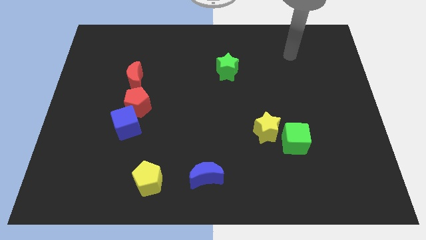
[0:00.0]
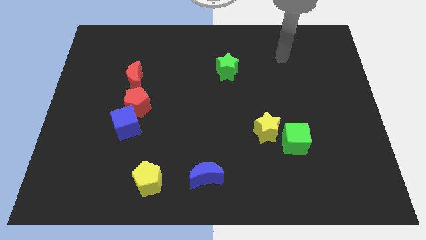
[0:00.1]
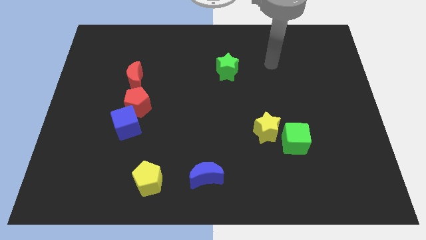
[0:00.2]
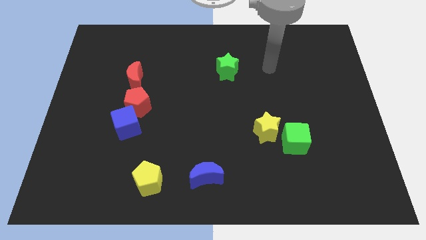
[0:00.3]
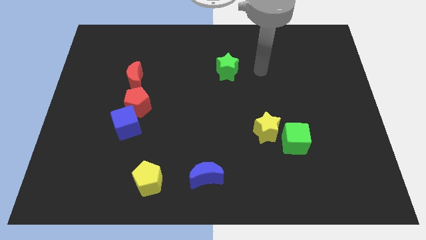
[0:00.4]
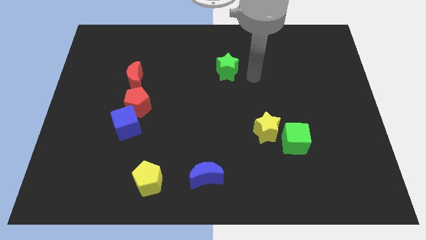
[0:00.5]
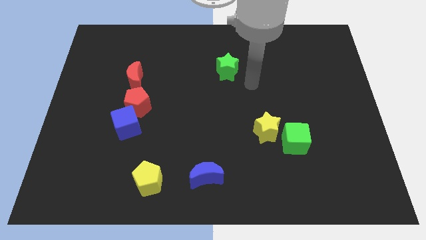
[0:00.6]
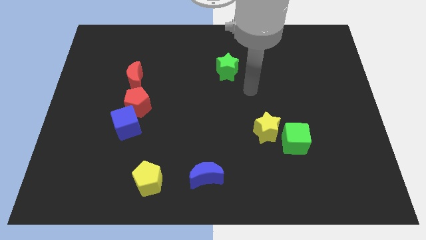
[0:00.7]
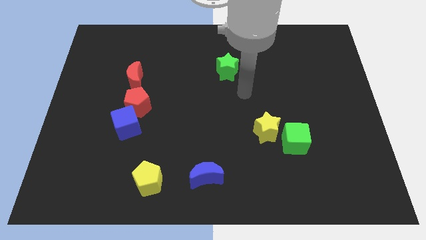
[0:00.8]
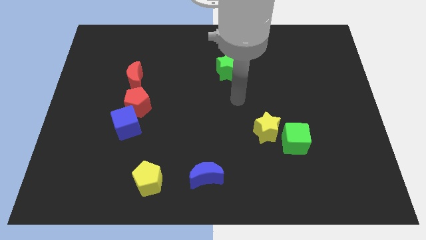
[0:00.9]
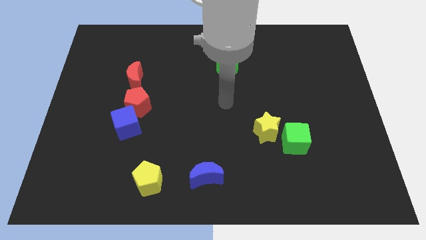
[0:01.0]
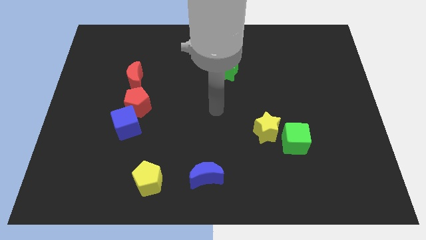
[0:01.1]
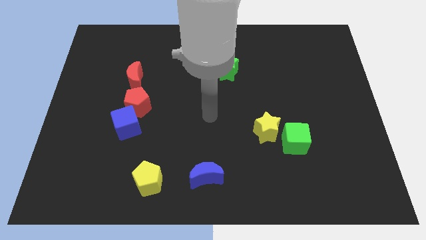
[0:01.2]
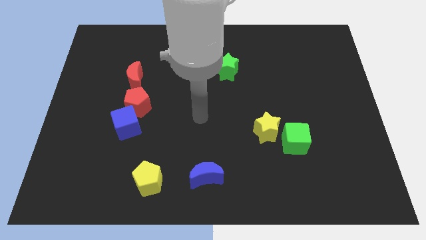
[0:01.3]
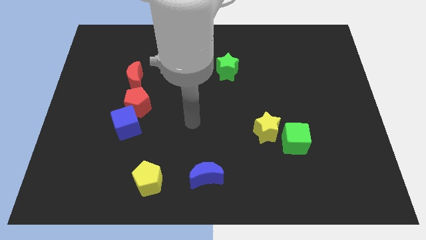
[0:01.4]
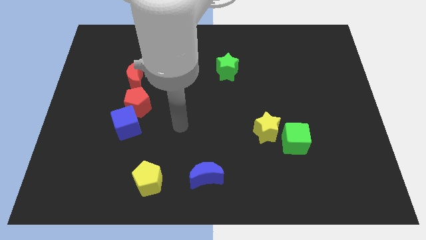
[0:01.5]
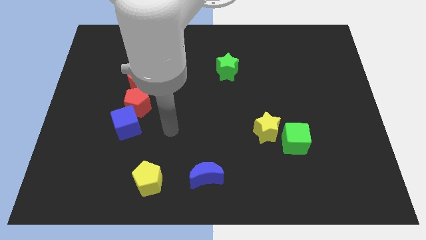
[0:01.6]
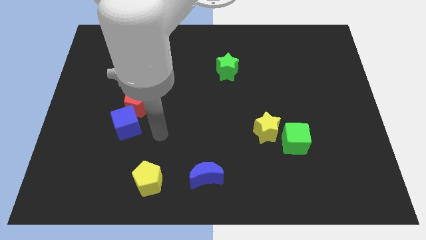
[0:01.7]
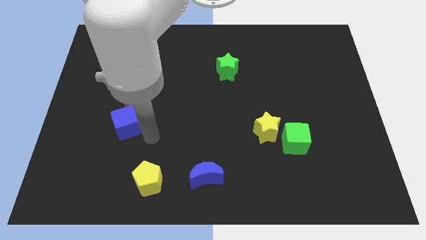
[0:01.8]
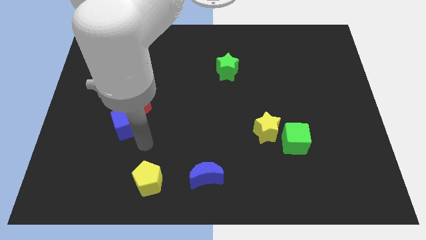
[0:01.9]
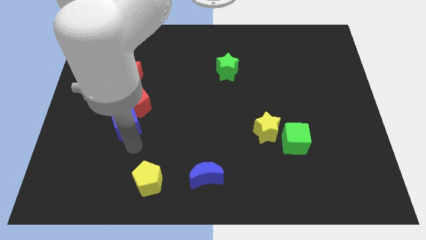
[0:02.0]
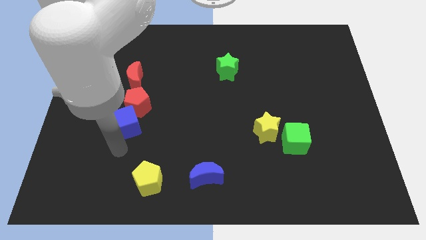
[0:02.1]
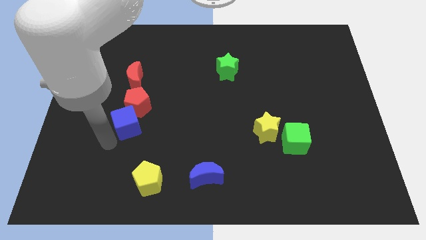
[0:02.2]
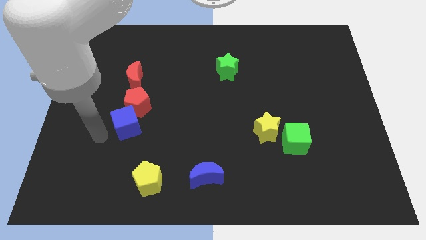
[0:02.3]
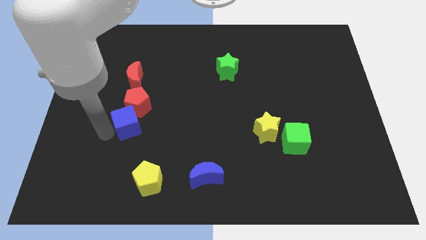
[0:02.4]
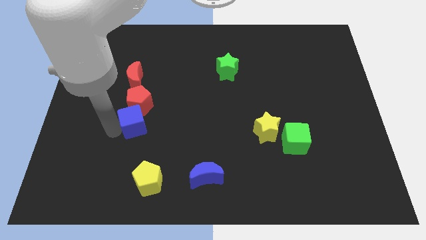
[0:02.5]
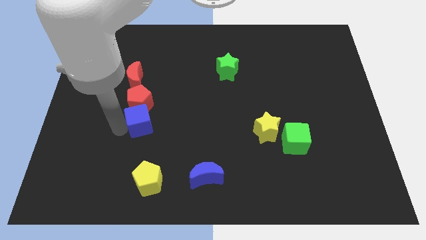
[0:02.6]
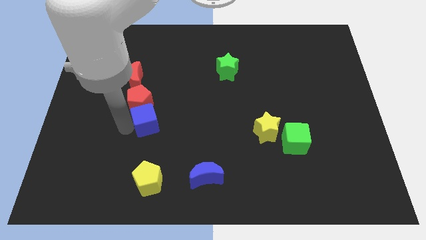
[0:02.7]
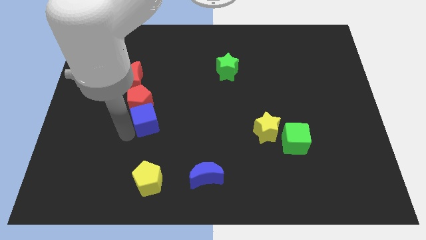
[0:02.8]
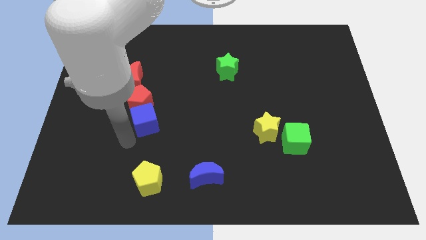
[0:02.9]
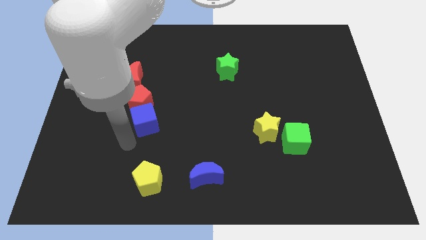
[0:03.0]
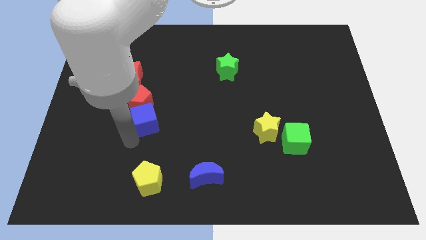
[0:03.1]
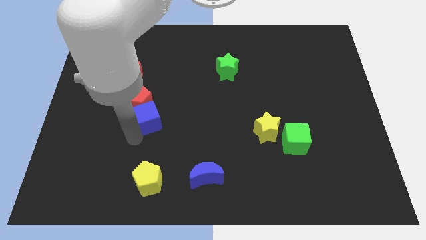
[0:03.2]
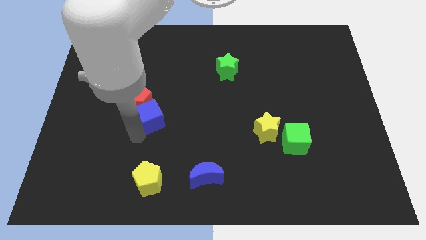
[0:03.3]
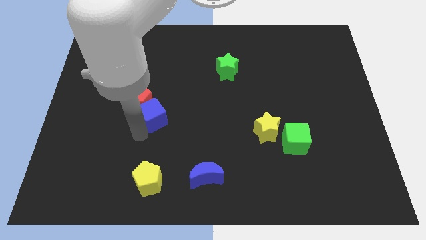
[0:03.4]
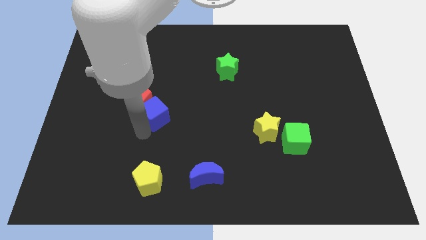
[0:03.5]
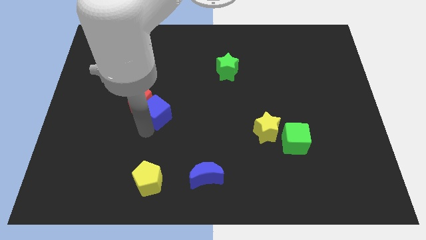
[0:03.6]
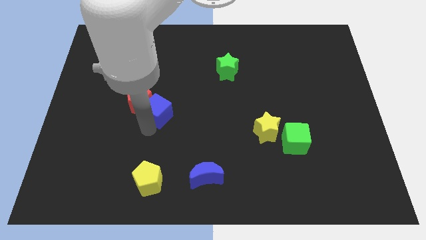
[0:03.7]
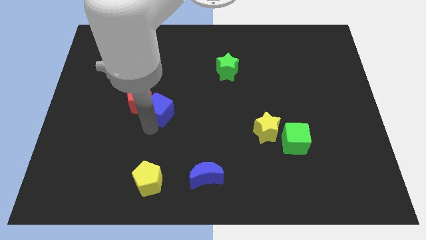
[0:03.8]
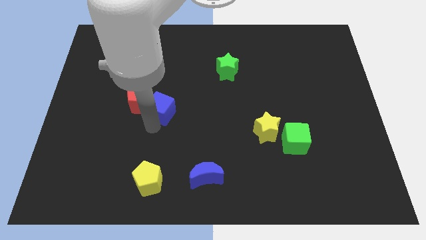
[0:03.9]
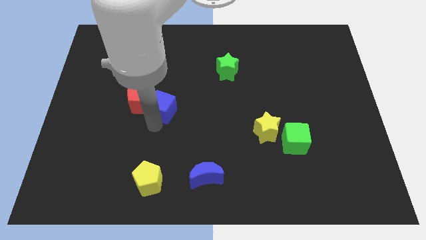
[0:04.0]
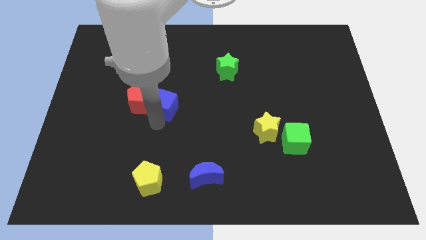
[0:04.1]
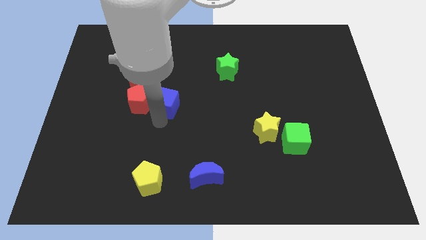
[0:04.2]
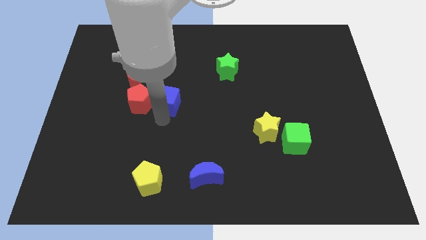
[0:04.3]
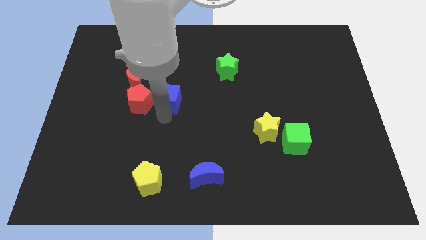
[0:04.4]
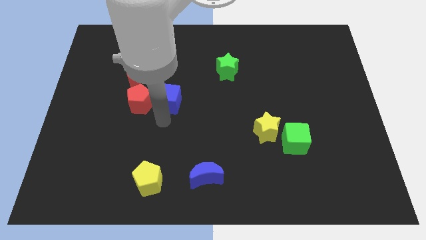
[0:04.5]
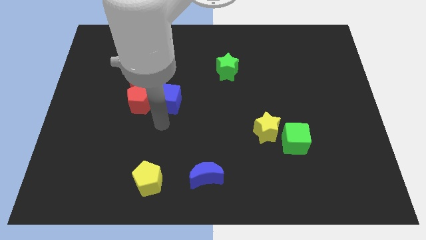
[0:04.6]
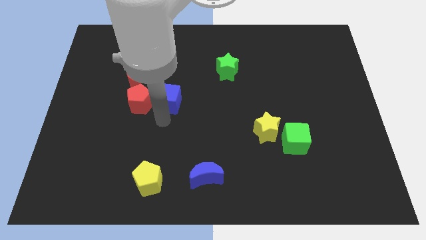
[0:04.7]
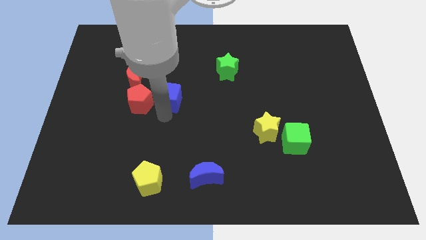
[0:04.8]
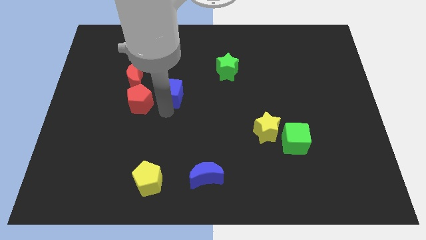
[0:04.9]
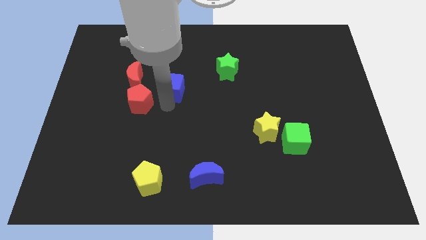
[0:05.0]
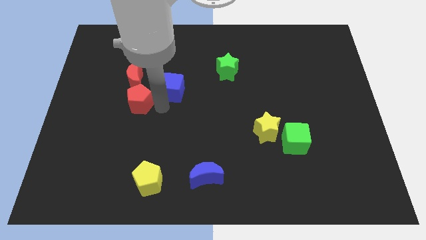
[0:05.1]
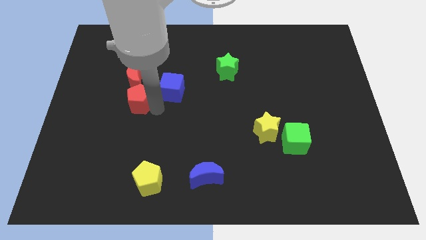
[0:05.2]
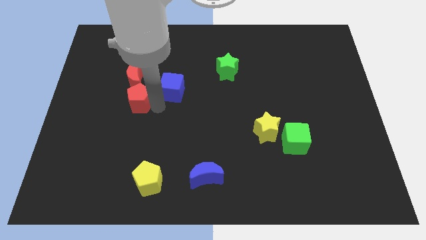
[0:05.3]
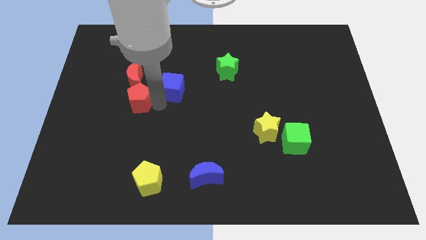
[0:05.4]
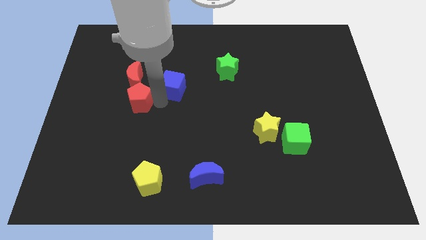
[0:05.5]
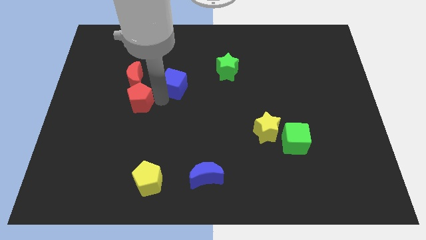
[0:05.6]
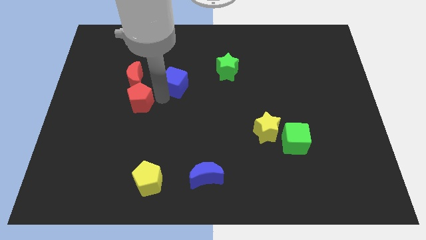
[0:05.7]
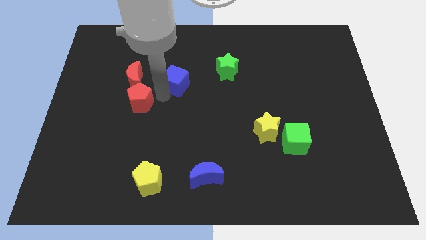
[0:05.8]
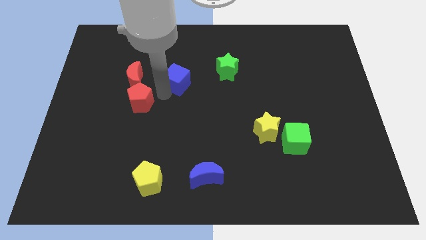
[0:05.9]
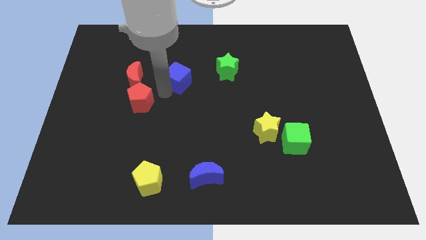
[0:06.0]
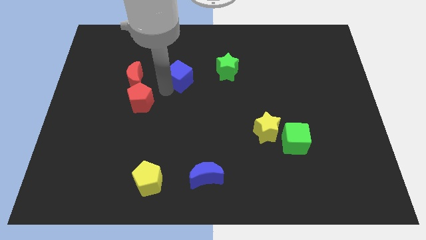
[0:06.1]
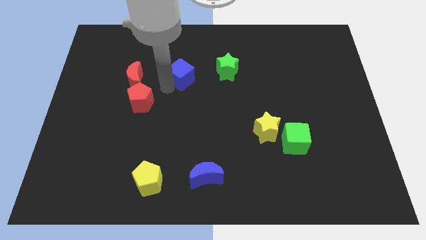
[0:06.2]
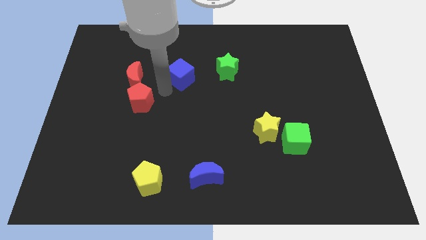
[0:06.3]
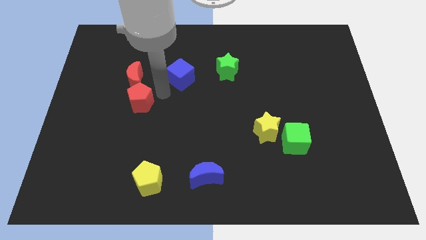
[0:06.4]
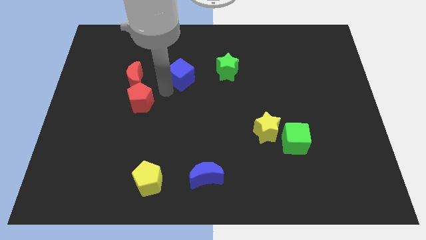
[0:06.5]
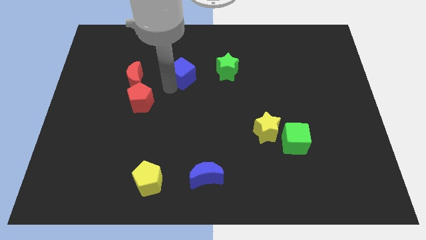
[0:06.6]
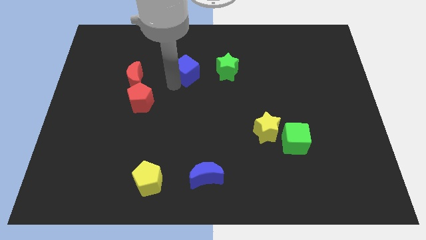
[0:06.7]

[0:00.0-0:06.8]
slide the blue cube up and then to the right

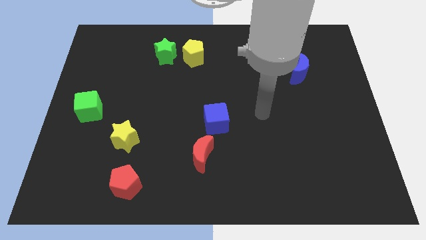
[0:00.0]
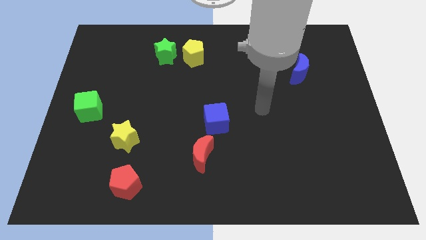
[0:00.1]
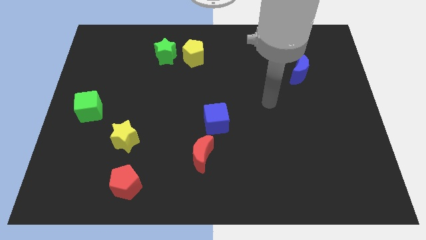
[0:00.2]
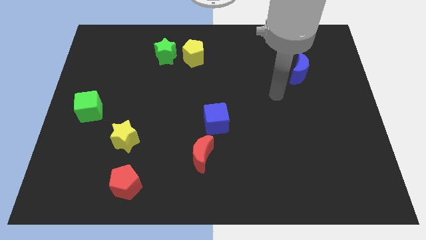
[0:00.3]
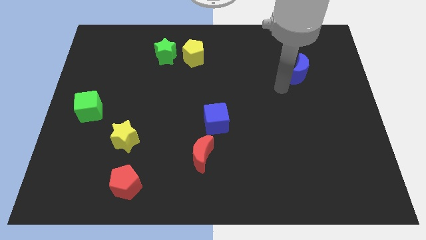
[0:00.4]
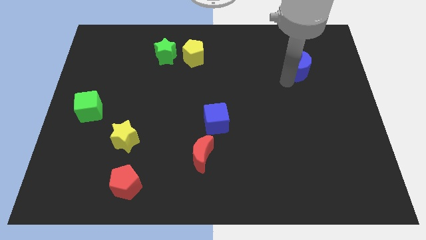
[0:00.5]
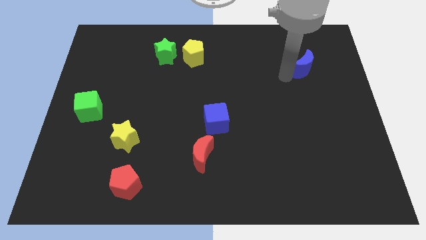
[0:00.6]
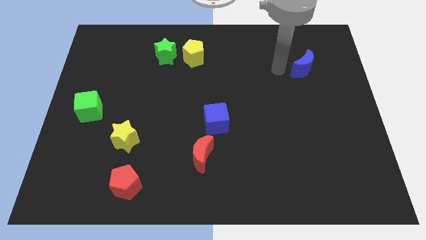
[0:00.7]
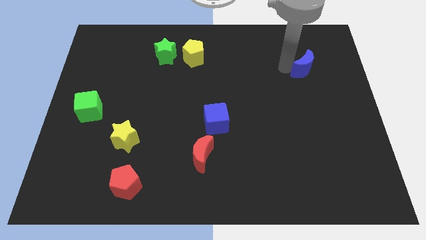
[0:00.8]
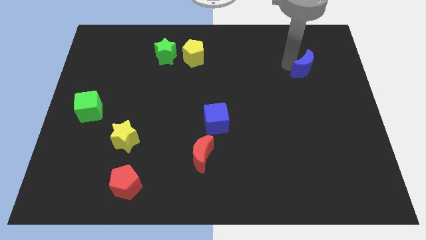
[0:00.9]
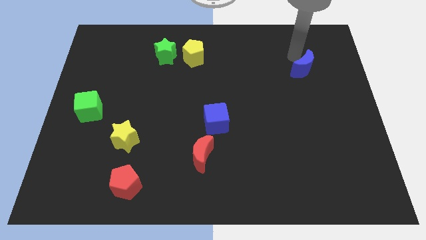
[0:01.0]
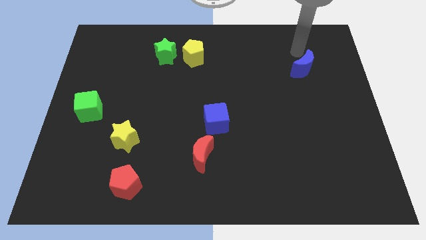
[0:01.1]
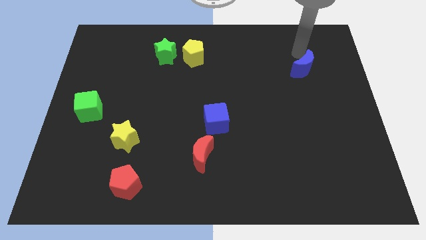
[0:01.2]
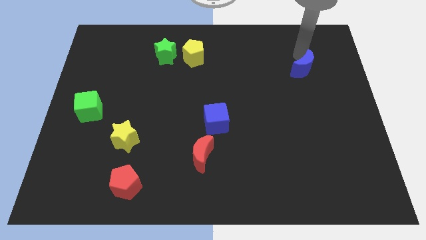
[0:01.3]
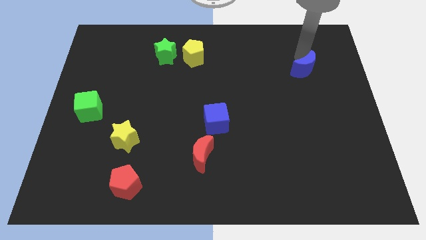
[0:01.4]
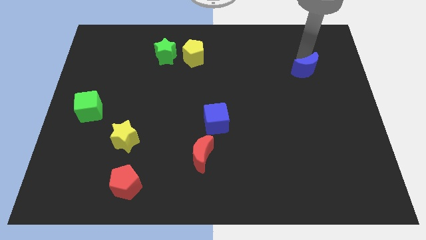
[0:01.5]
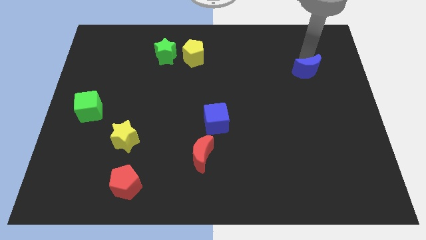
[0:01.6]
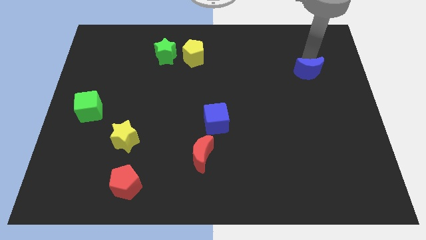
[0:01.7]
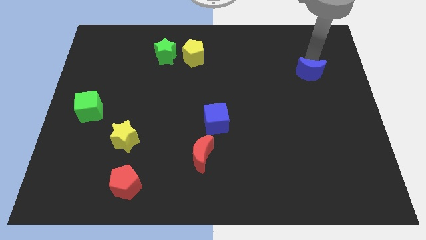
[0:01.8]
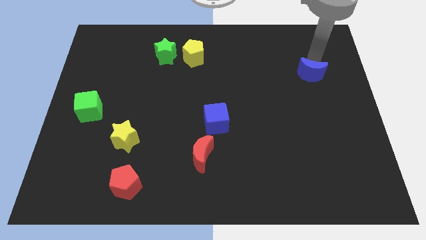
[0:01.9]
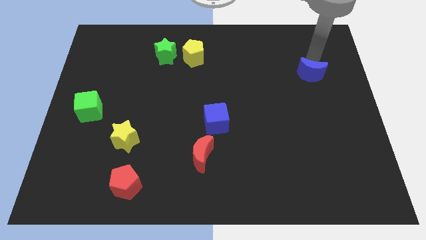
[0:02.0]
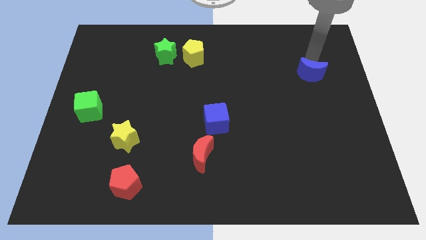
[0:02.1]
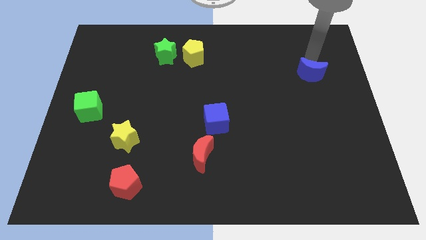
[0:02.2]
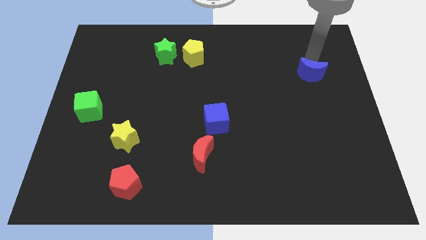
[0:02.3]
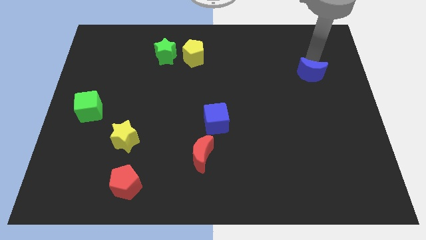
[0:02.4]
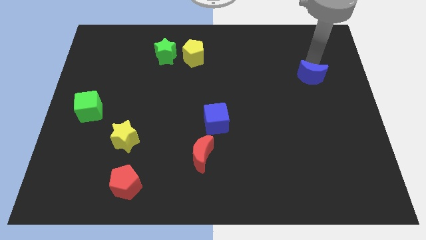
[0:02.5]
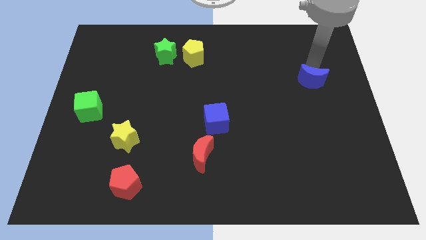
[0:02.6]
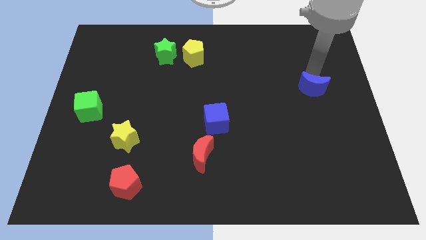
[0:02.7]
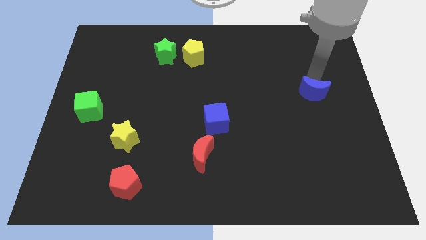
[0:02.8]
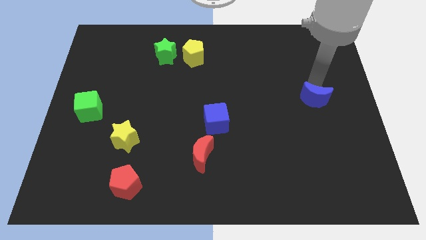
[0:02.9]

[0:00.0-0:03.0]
move the blue moon down a little
